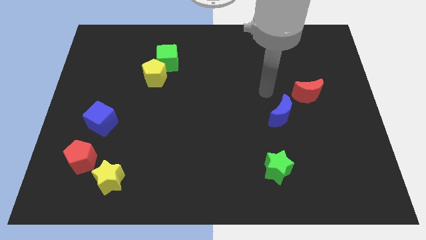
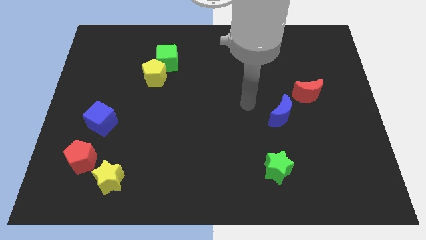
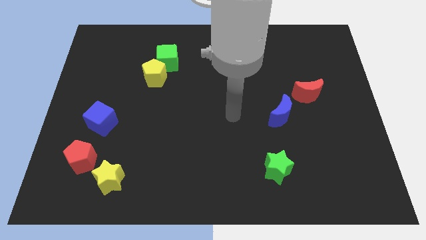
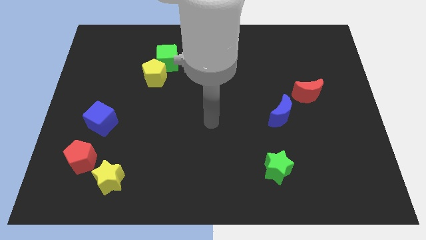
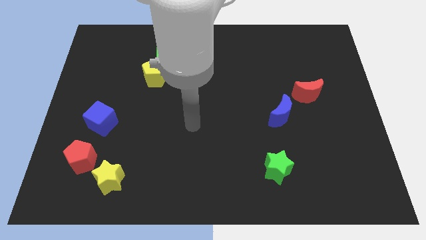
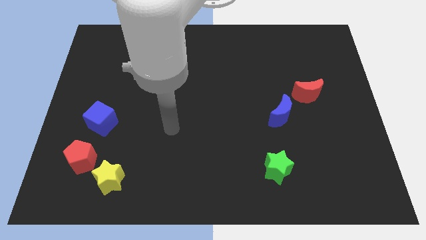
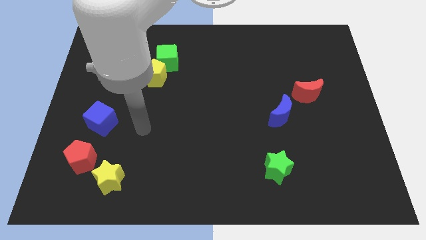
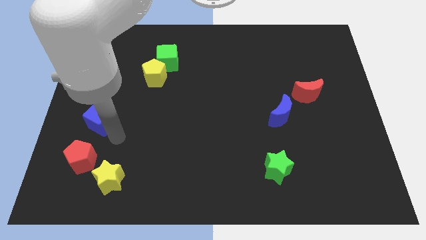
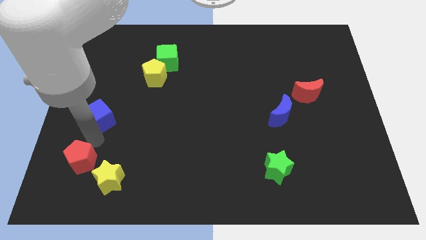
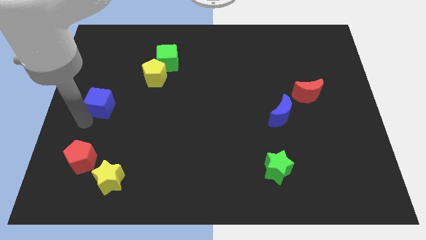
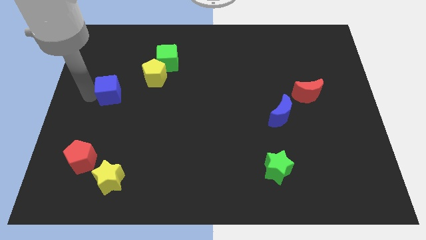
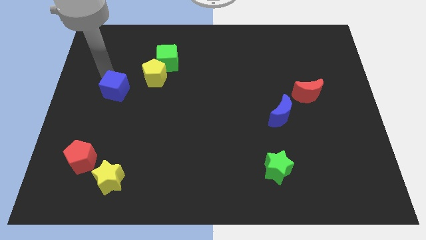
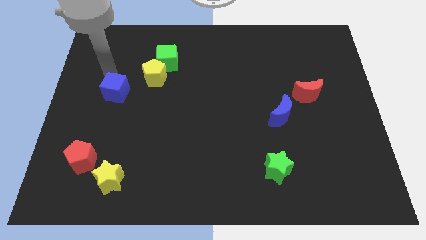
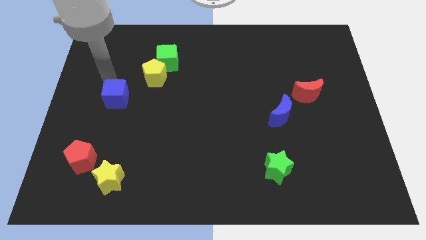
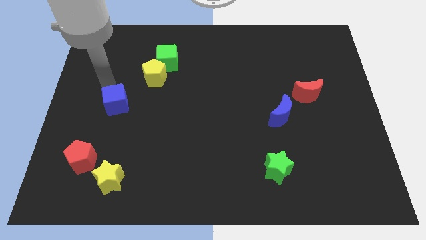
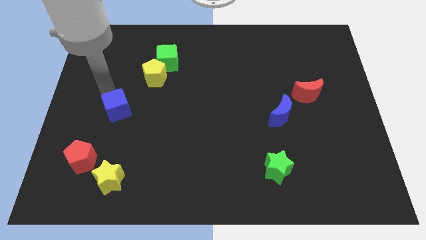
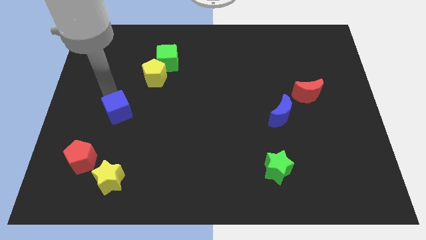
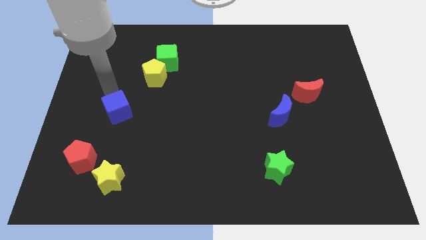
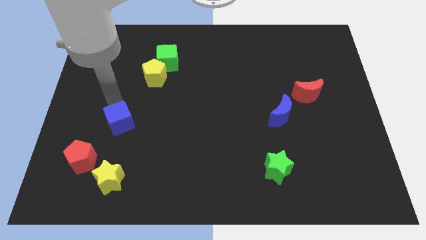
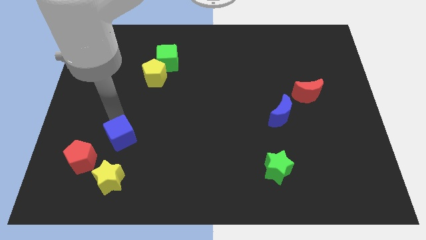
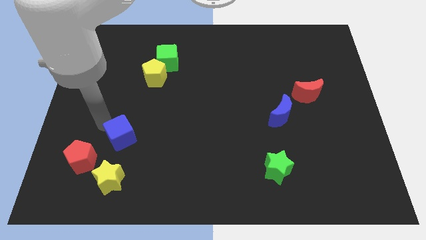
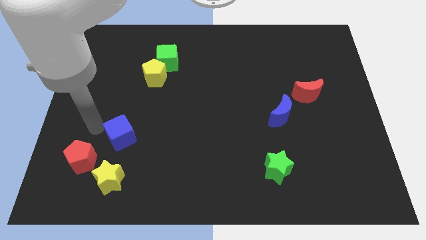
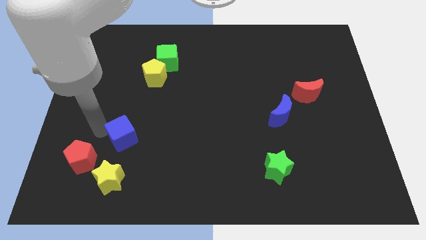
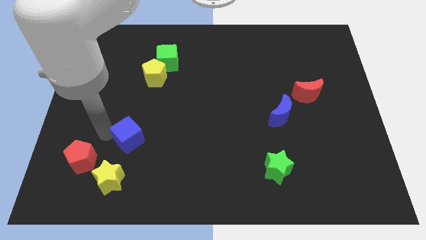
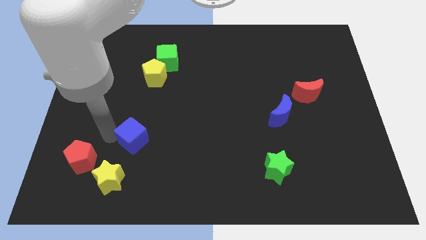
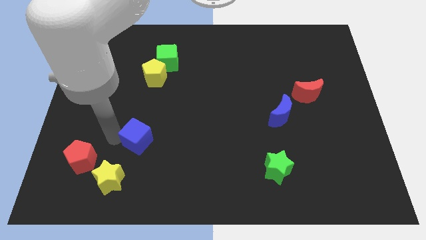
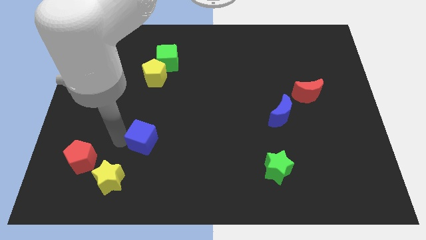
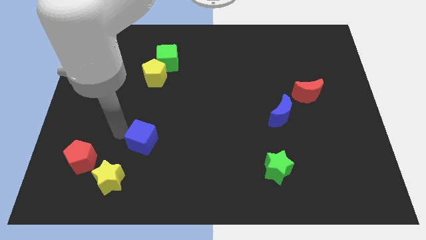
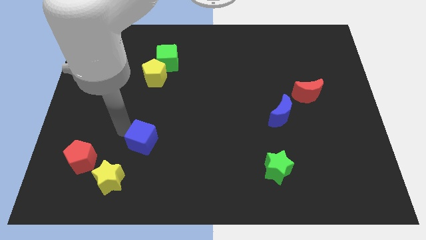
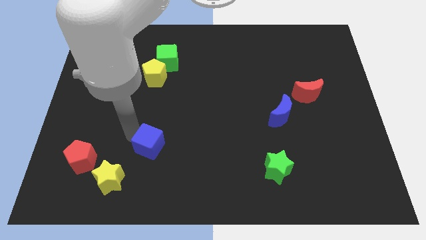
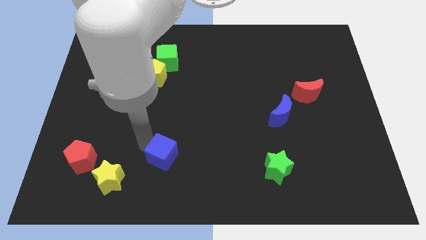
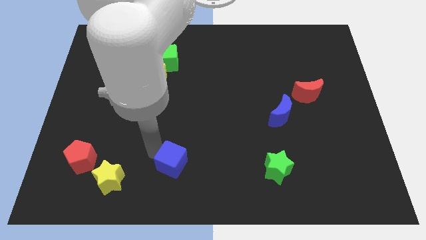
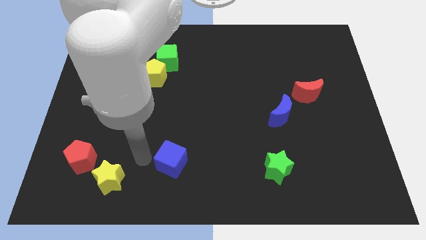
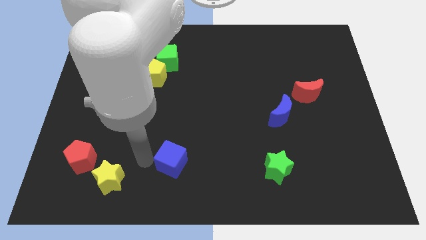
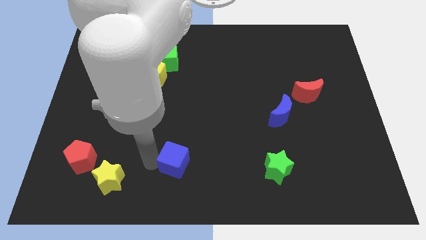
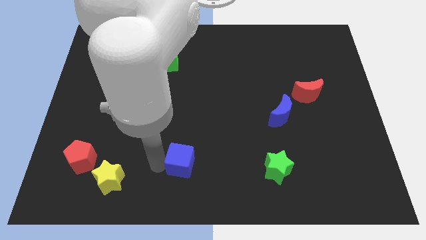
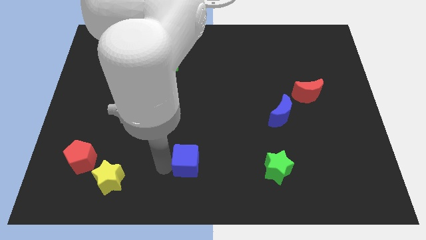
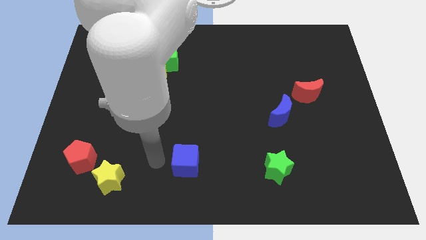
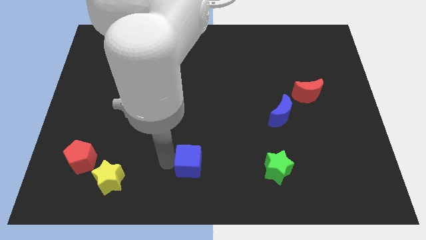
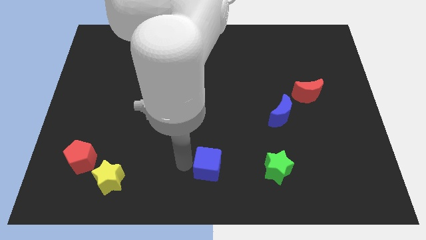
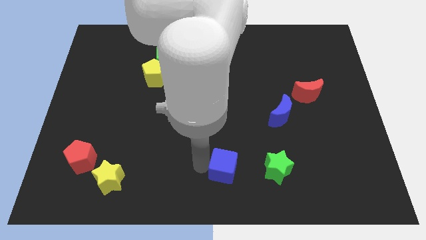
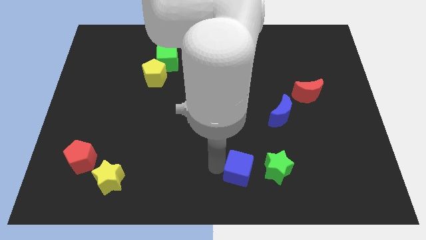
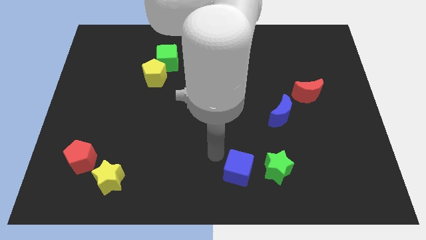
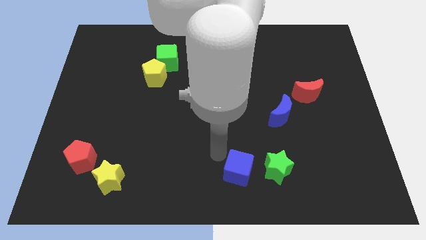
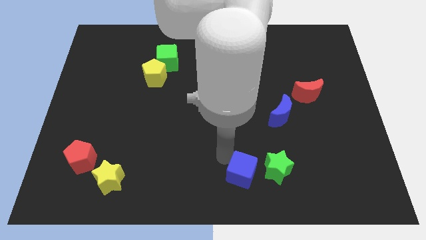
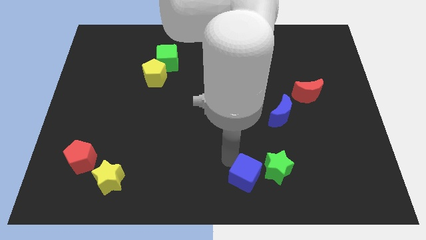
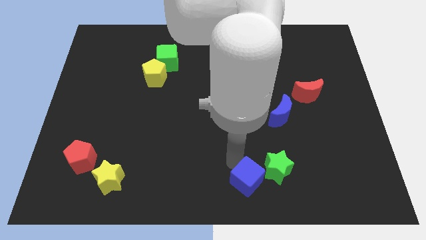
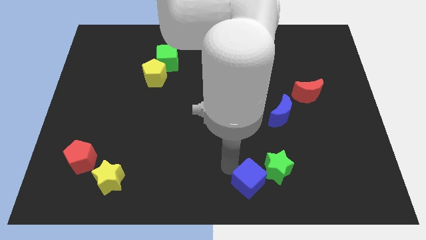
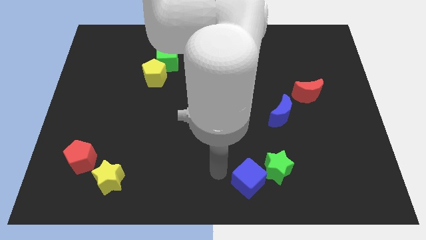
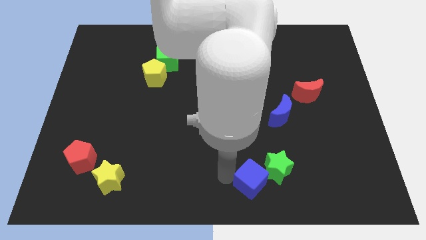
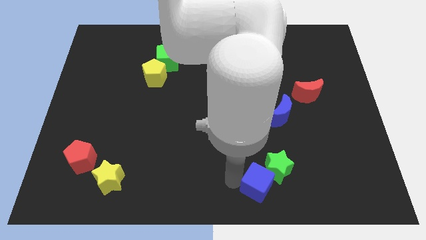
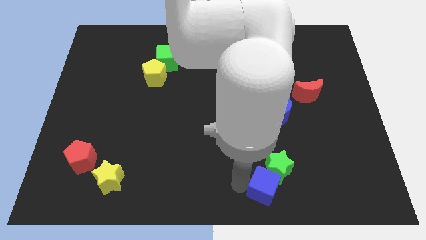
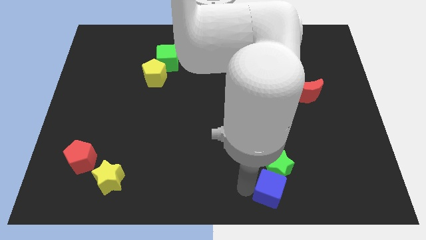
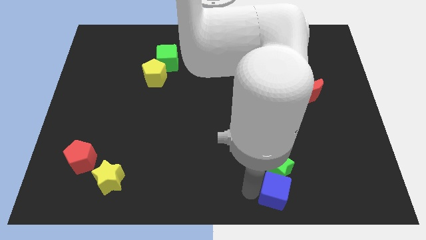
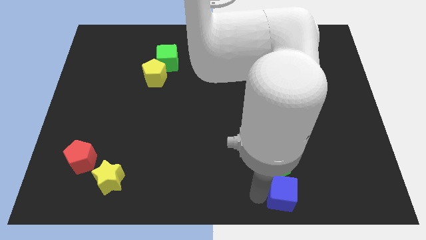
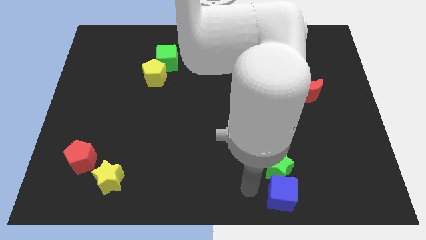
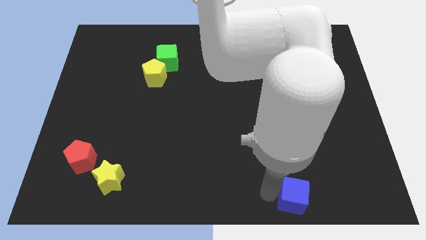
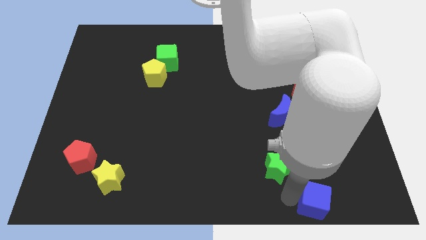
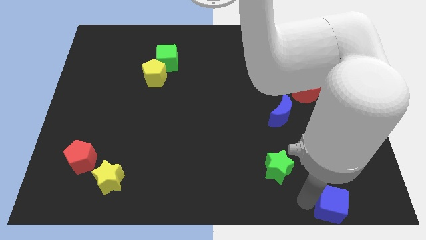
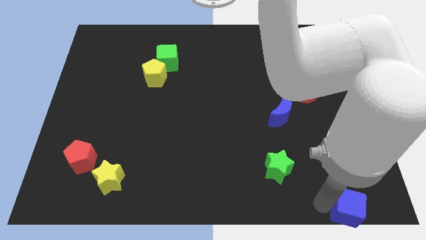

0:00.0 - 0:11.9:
push the blue cube to the lower right corner
